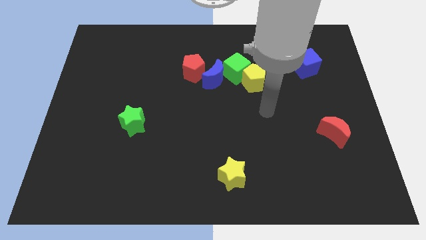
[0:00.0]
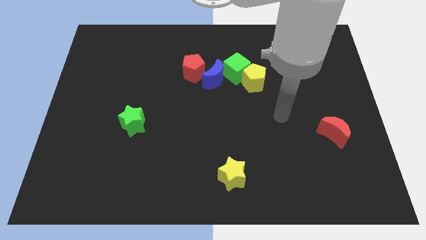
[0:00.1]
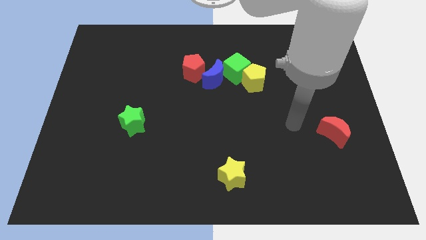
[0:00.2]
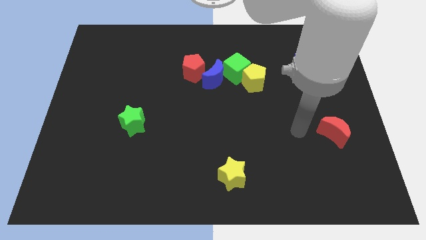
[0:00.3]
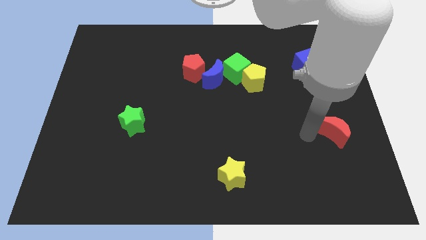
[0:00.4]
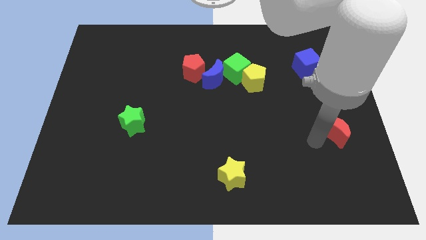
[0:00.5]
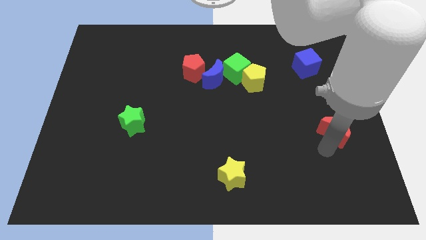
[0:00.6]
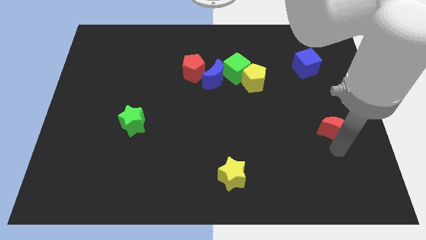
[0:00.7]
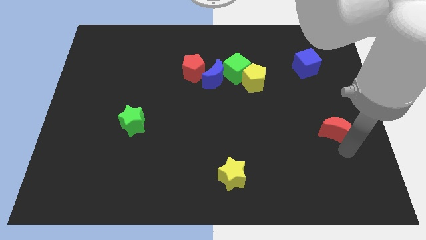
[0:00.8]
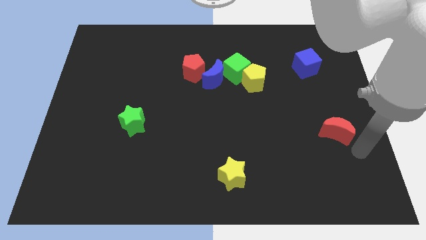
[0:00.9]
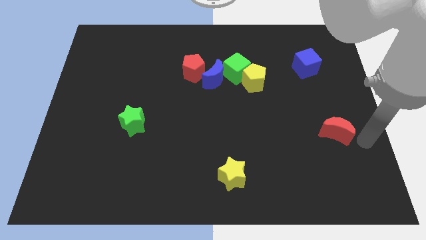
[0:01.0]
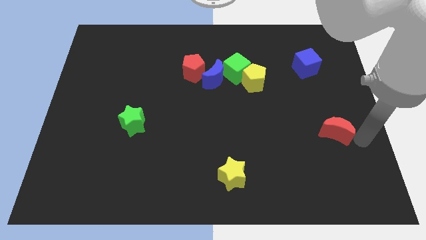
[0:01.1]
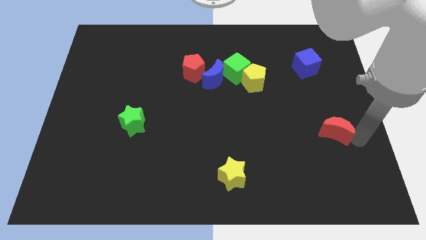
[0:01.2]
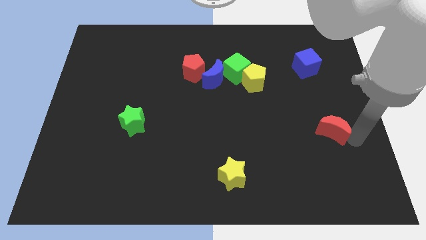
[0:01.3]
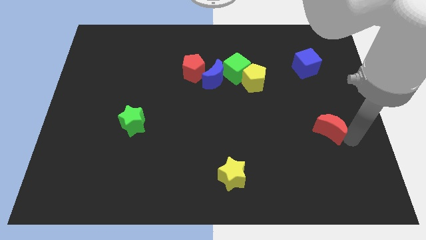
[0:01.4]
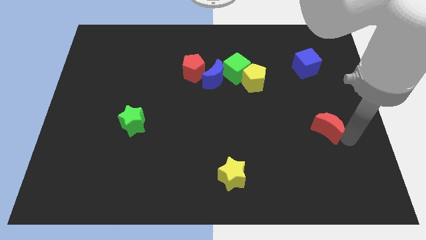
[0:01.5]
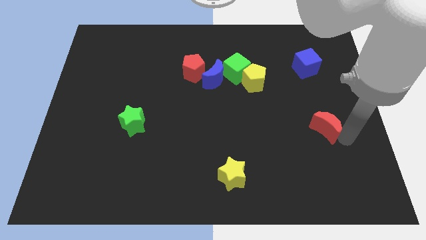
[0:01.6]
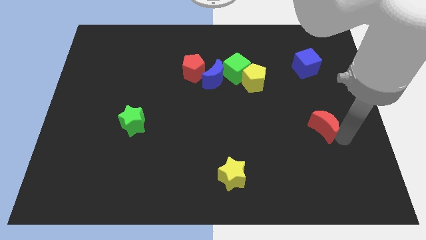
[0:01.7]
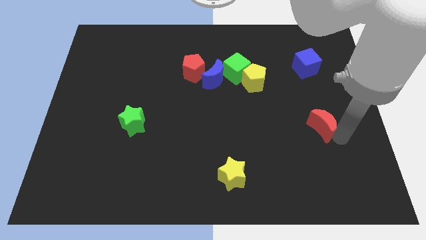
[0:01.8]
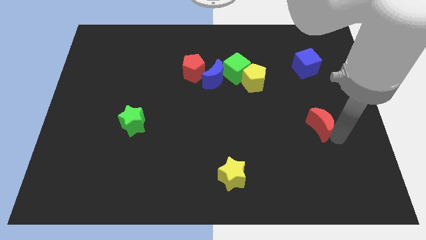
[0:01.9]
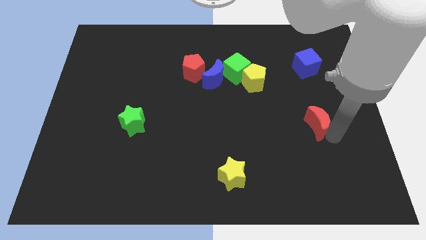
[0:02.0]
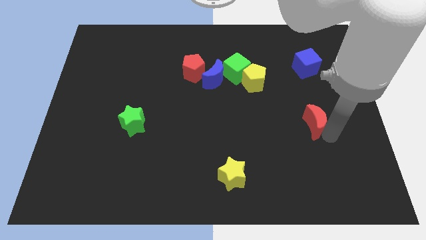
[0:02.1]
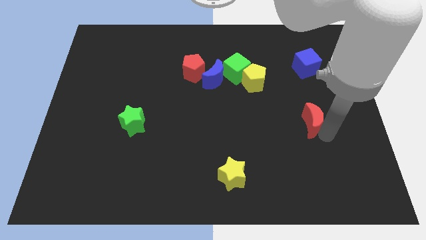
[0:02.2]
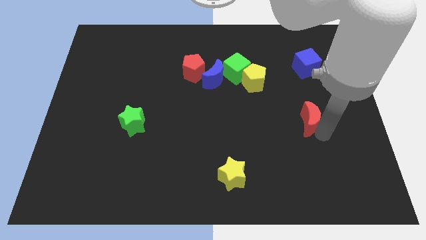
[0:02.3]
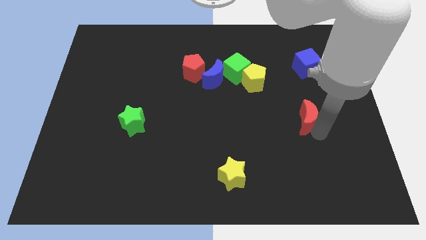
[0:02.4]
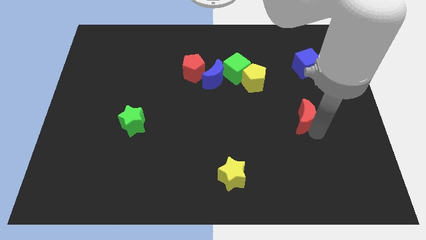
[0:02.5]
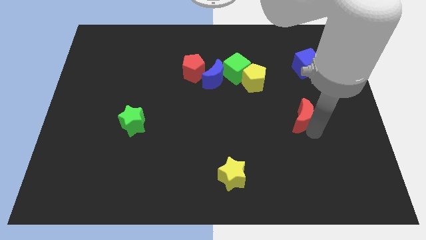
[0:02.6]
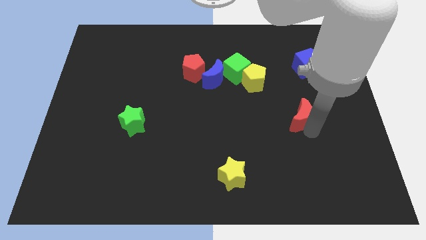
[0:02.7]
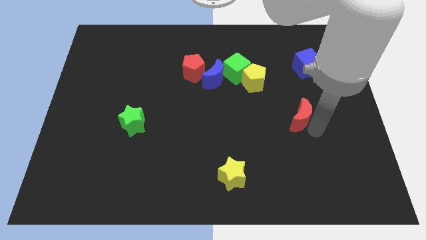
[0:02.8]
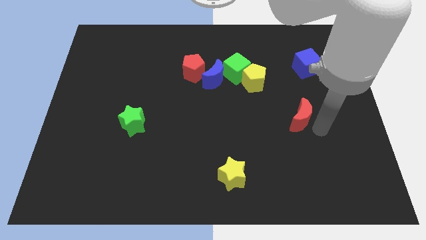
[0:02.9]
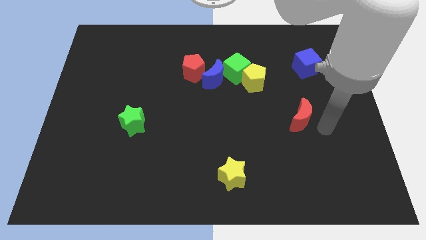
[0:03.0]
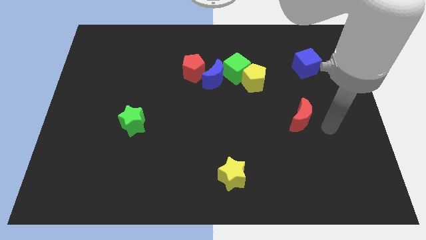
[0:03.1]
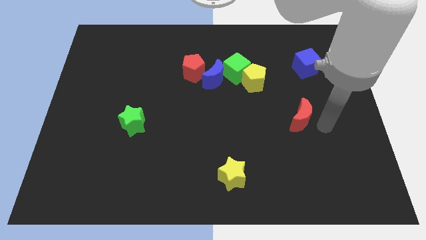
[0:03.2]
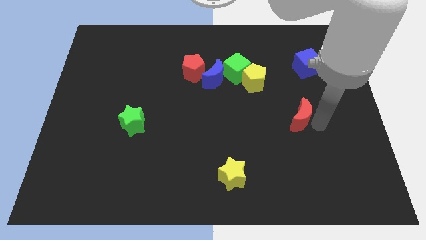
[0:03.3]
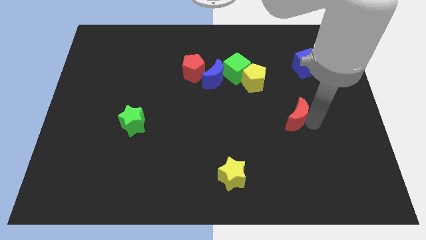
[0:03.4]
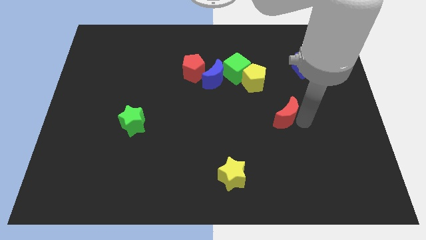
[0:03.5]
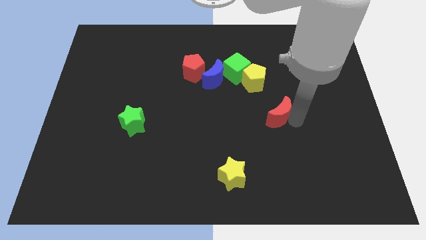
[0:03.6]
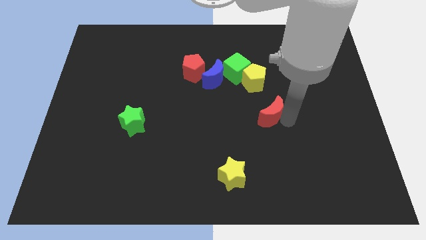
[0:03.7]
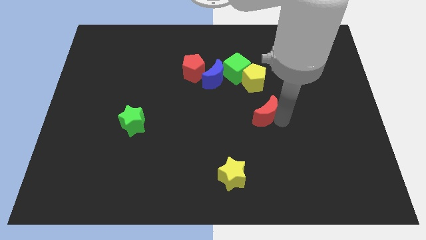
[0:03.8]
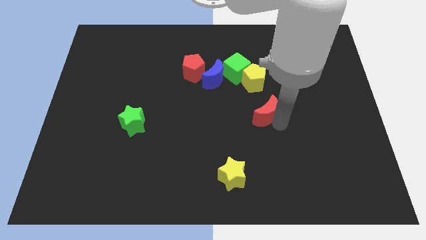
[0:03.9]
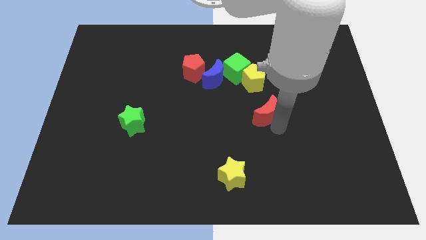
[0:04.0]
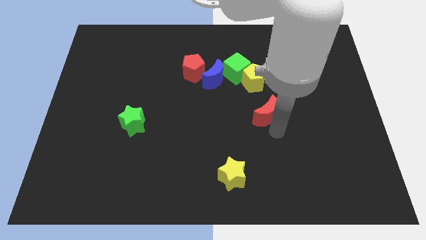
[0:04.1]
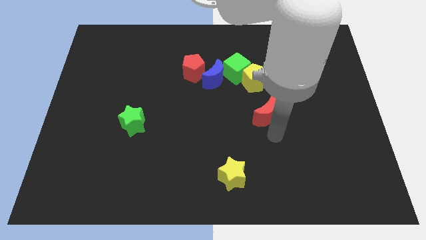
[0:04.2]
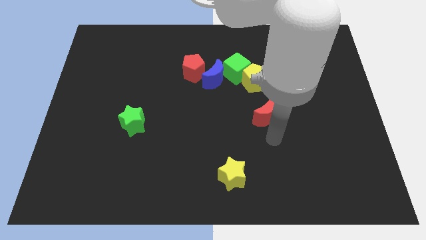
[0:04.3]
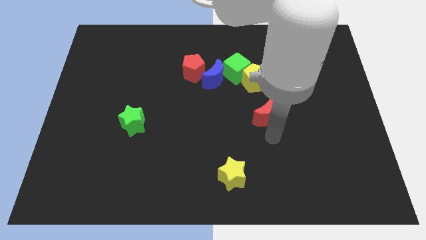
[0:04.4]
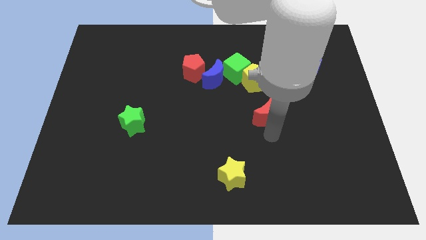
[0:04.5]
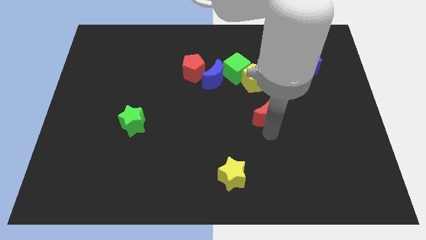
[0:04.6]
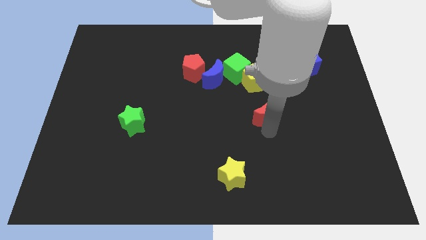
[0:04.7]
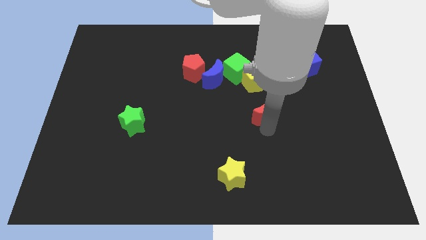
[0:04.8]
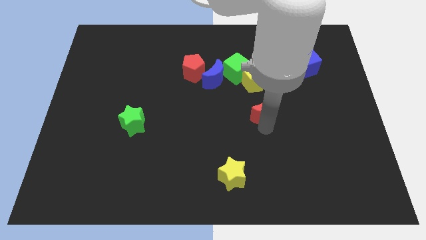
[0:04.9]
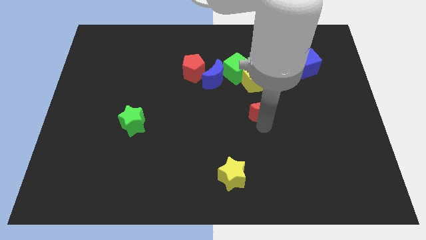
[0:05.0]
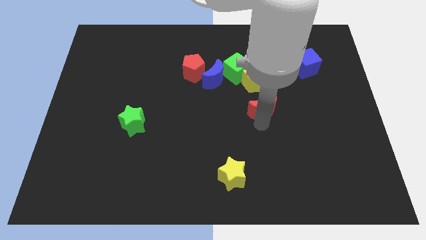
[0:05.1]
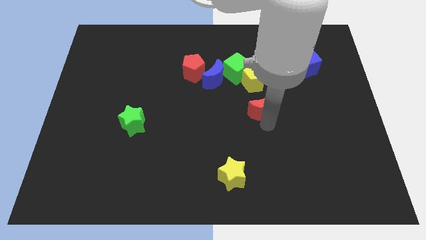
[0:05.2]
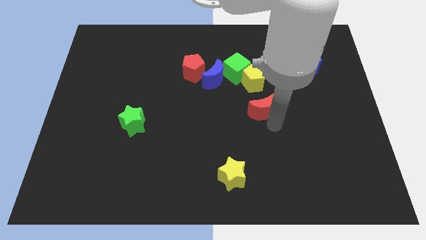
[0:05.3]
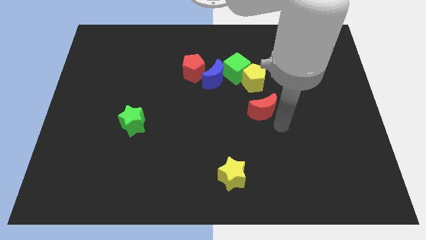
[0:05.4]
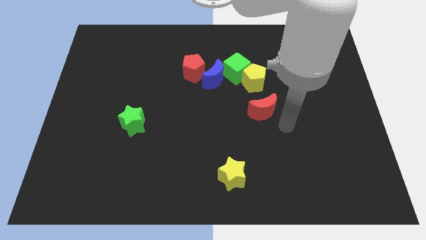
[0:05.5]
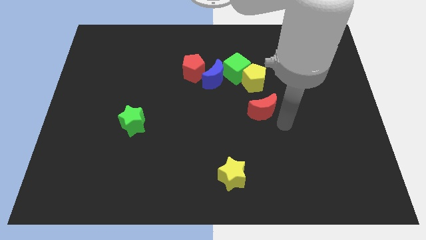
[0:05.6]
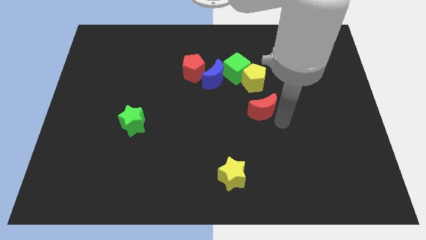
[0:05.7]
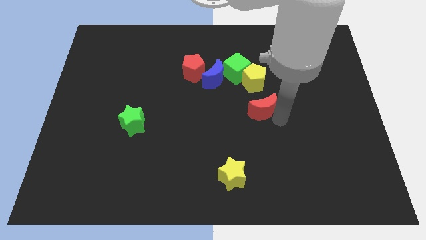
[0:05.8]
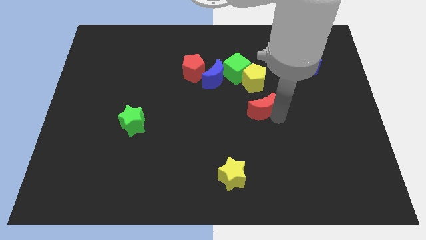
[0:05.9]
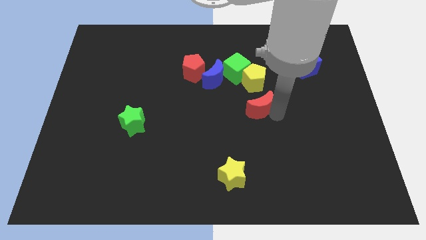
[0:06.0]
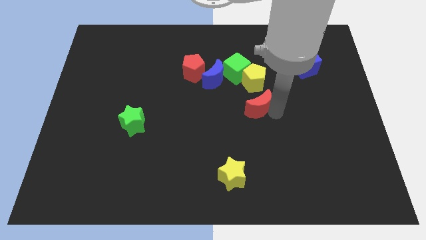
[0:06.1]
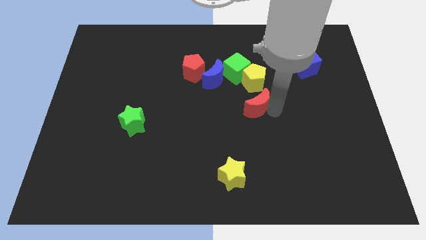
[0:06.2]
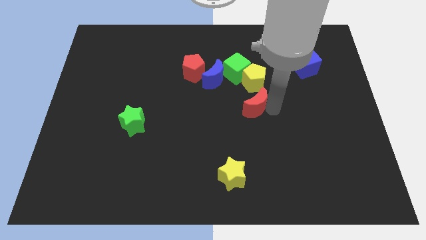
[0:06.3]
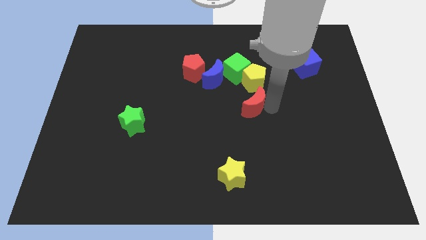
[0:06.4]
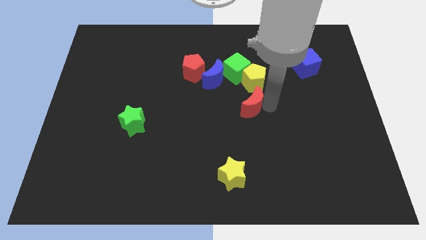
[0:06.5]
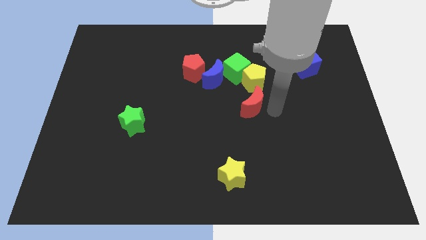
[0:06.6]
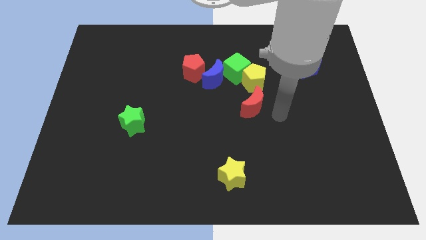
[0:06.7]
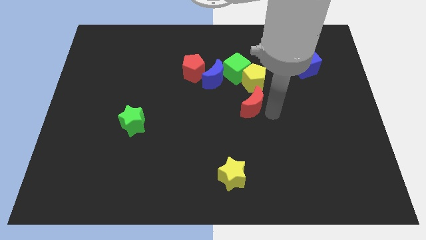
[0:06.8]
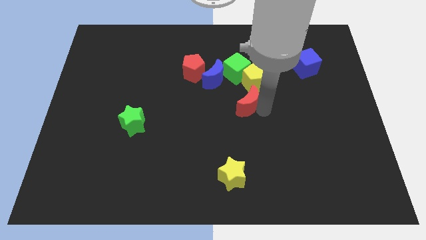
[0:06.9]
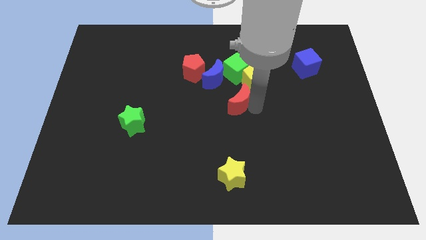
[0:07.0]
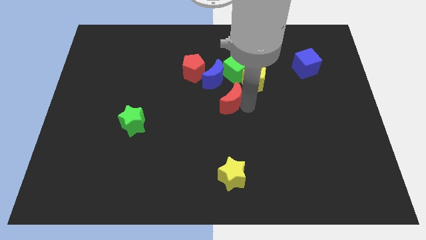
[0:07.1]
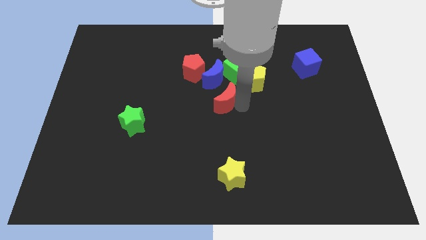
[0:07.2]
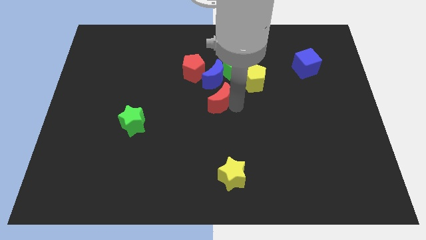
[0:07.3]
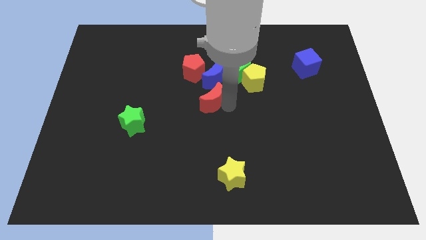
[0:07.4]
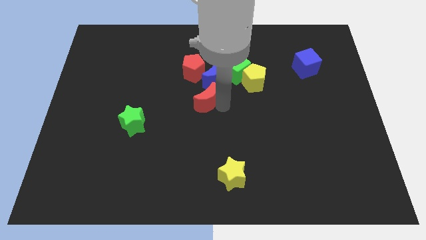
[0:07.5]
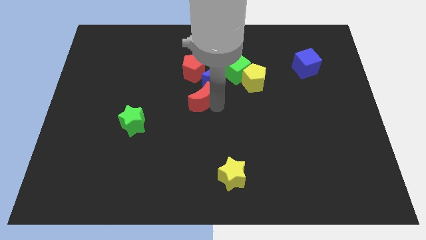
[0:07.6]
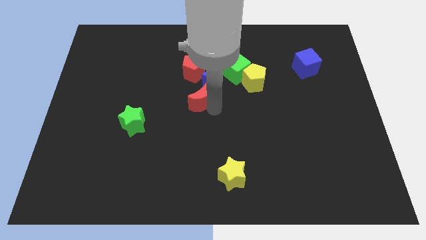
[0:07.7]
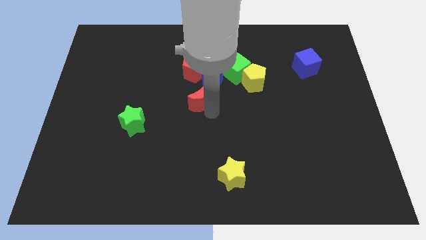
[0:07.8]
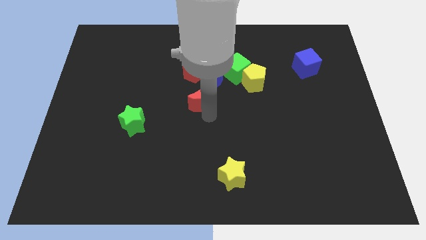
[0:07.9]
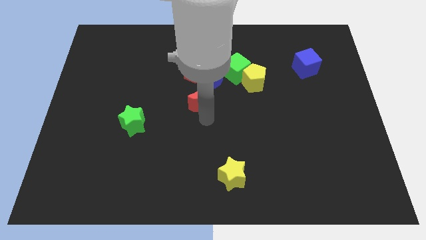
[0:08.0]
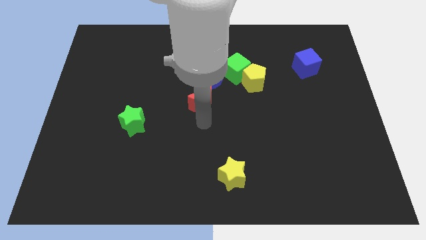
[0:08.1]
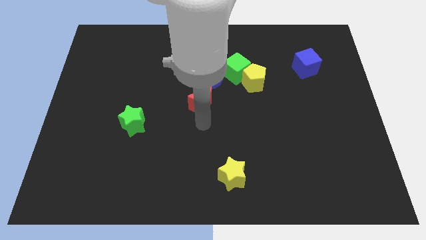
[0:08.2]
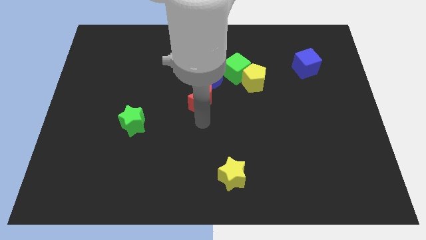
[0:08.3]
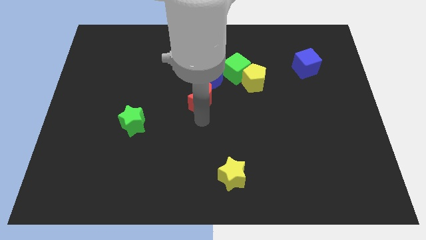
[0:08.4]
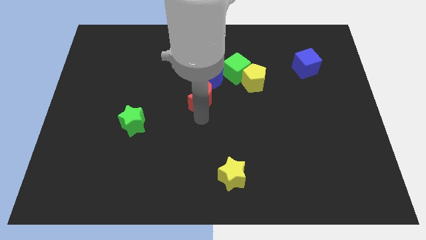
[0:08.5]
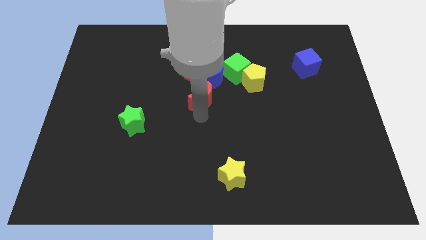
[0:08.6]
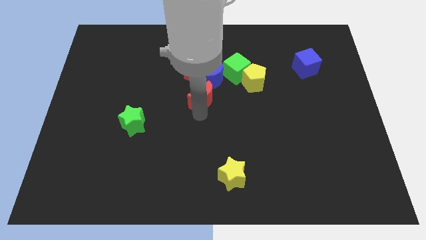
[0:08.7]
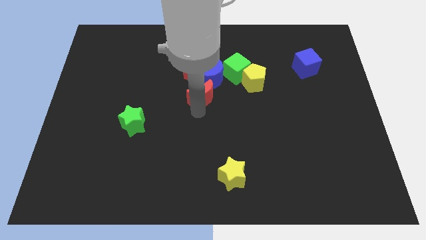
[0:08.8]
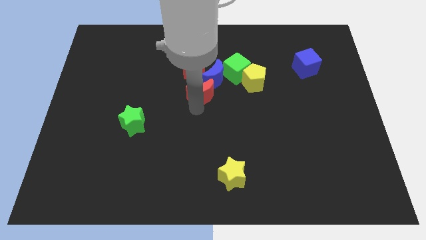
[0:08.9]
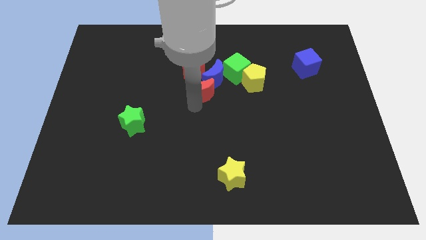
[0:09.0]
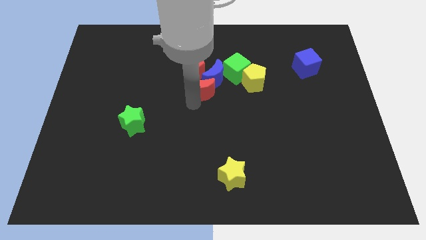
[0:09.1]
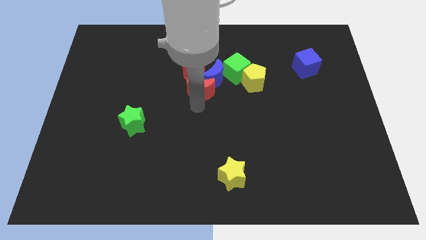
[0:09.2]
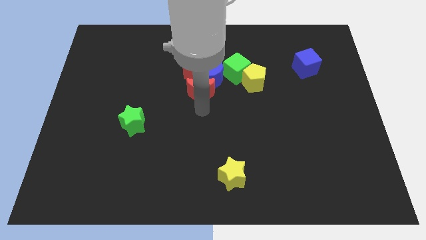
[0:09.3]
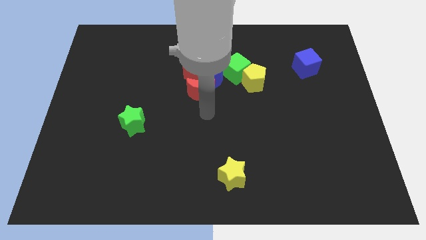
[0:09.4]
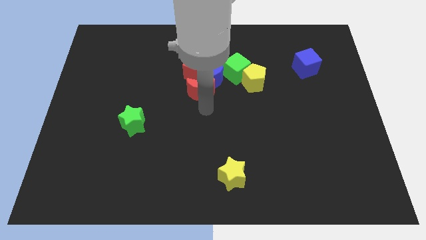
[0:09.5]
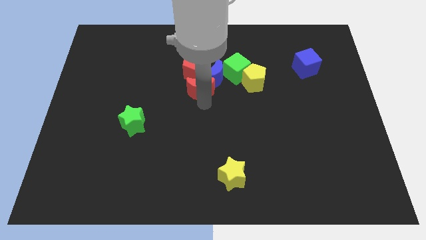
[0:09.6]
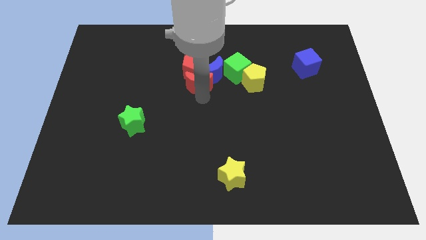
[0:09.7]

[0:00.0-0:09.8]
move the red moon towards the red pentagon
